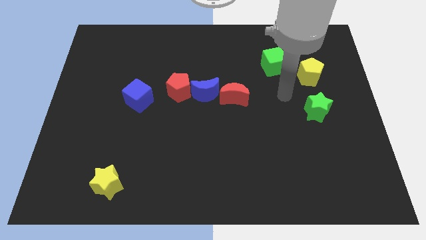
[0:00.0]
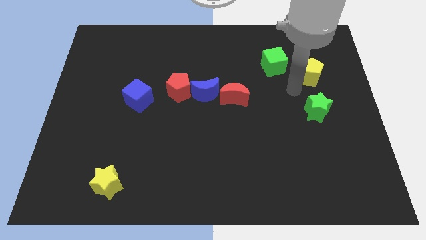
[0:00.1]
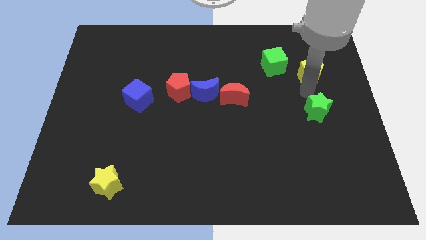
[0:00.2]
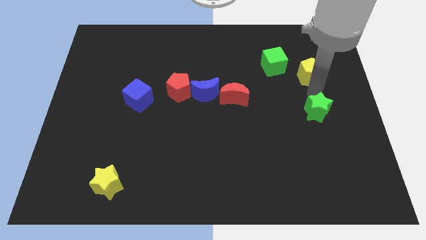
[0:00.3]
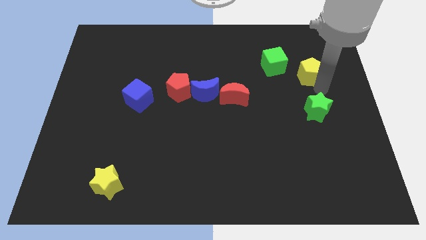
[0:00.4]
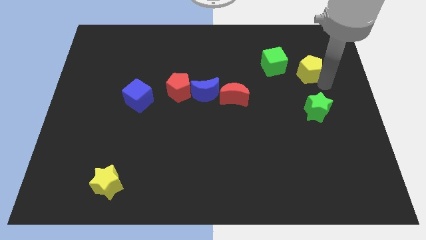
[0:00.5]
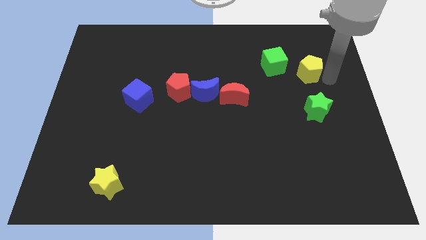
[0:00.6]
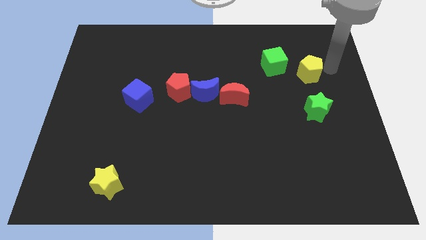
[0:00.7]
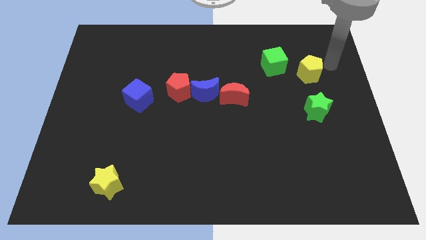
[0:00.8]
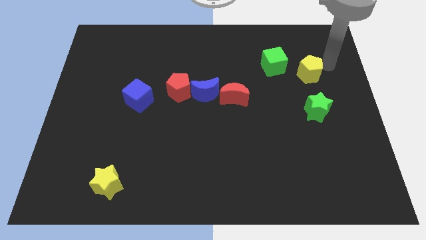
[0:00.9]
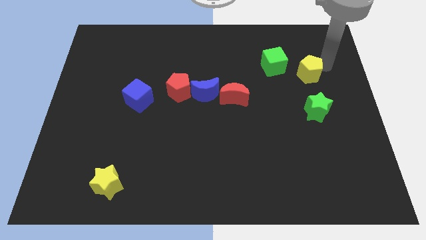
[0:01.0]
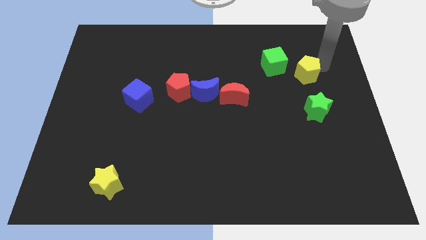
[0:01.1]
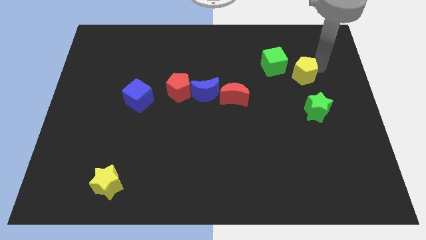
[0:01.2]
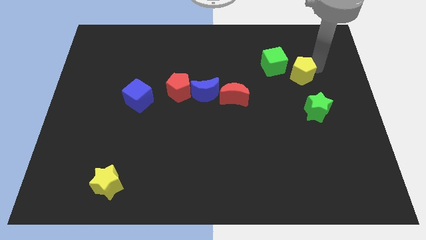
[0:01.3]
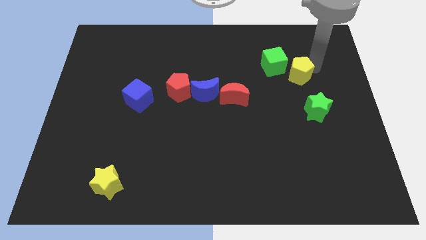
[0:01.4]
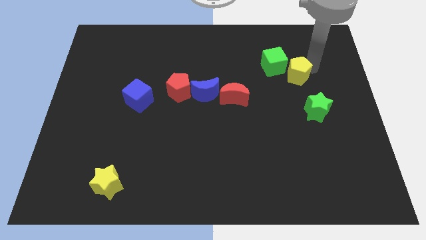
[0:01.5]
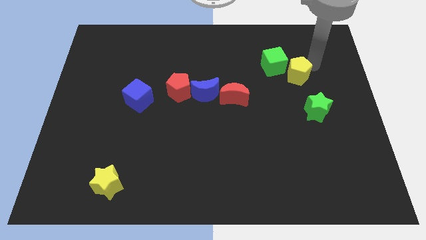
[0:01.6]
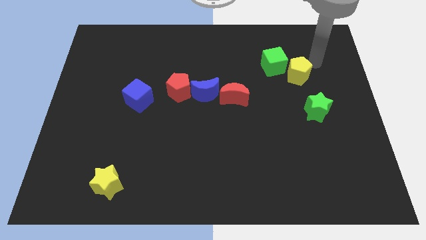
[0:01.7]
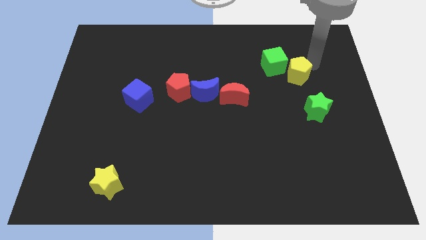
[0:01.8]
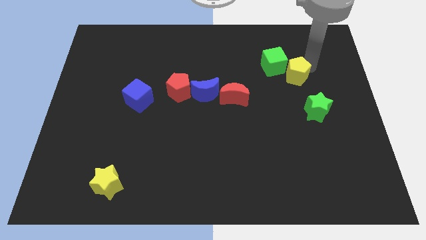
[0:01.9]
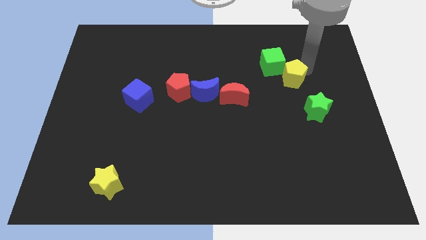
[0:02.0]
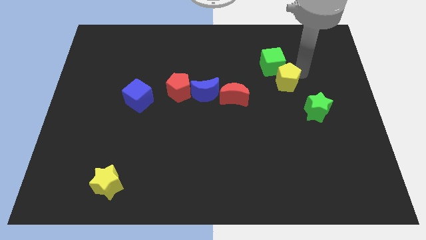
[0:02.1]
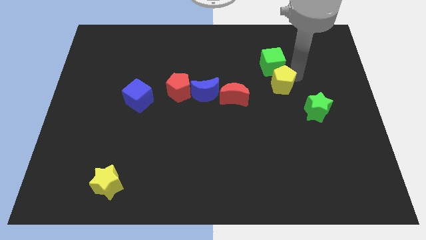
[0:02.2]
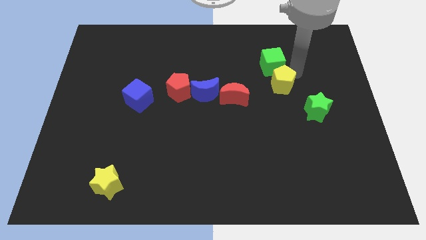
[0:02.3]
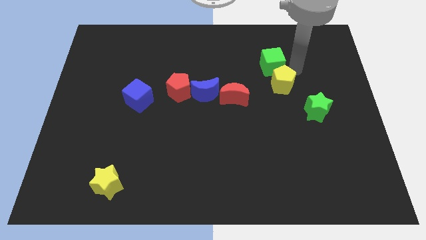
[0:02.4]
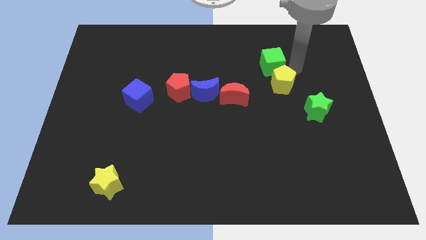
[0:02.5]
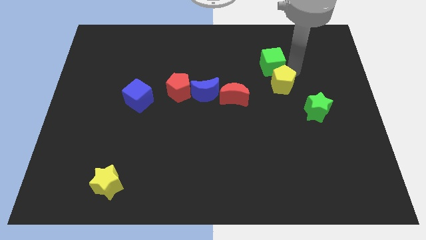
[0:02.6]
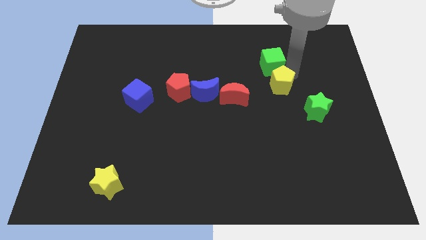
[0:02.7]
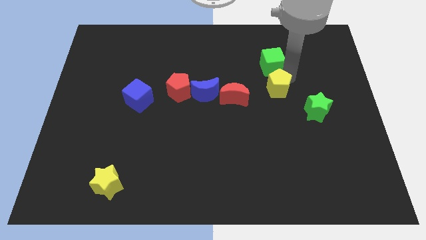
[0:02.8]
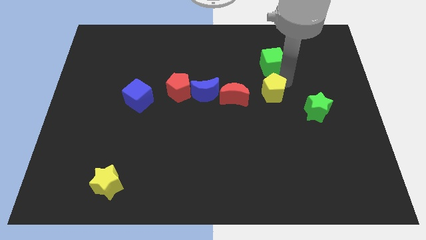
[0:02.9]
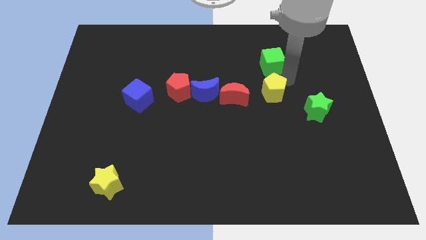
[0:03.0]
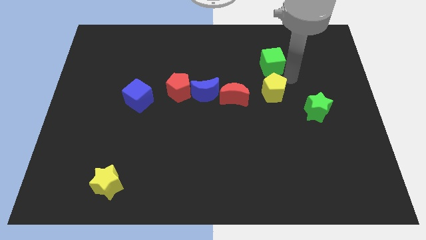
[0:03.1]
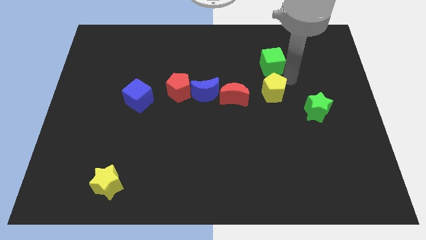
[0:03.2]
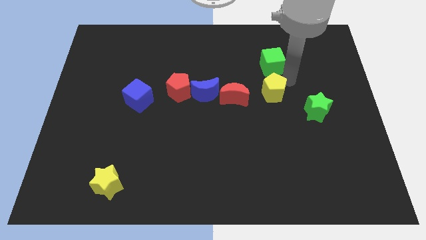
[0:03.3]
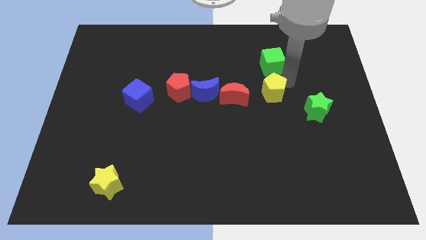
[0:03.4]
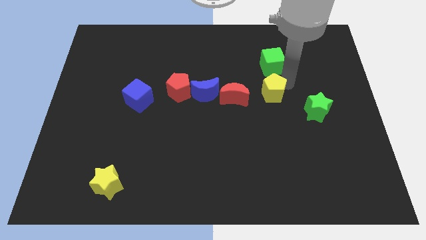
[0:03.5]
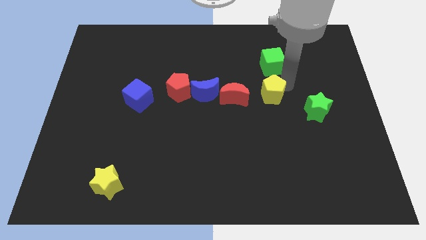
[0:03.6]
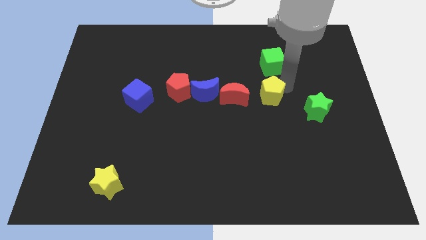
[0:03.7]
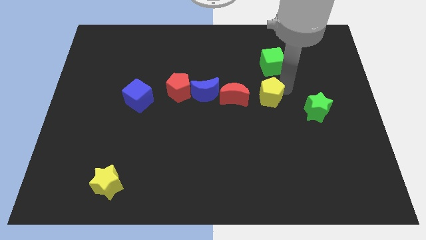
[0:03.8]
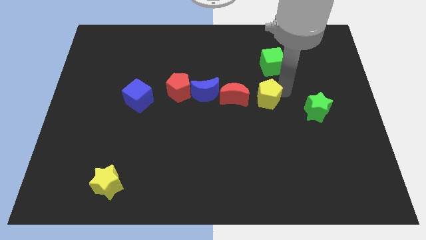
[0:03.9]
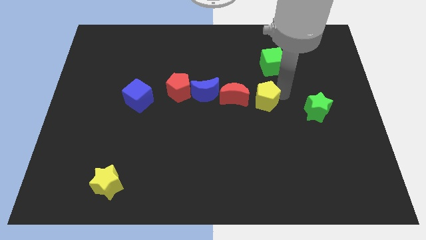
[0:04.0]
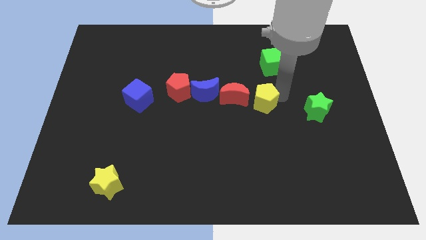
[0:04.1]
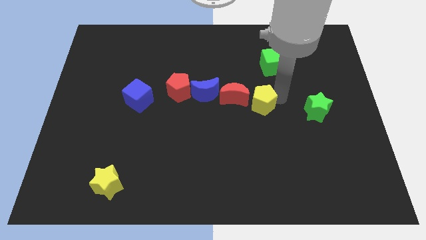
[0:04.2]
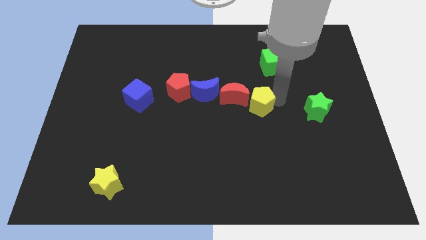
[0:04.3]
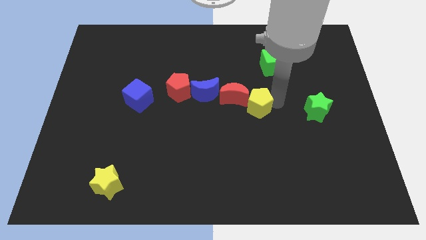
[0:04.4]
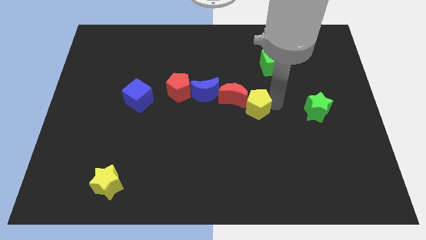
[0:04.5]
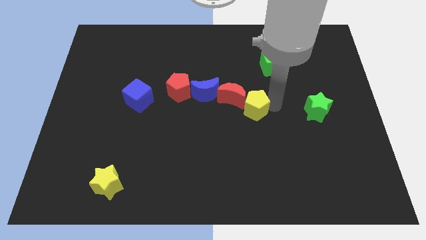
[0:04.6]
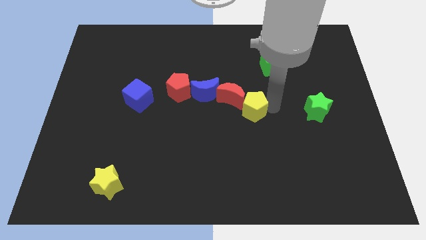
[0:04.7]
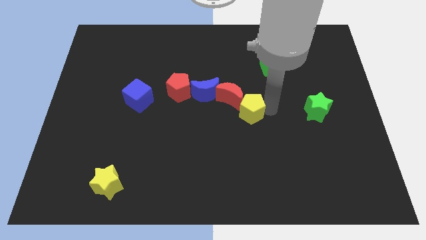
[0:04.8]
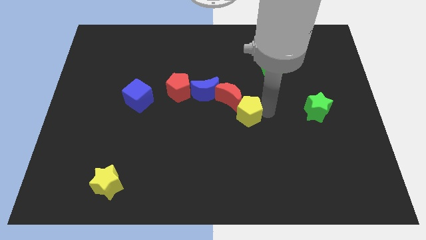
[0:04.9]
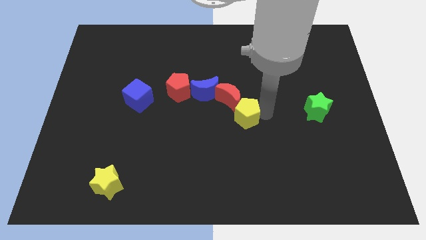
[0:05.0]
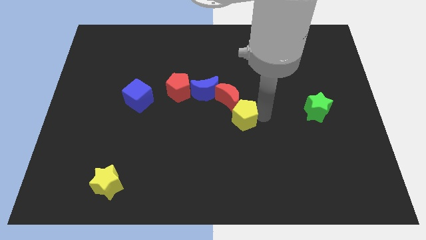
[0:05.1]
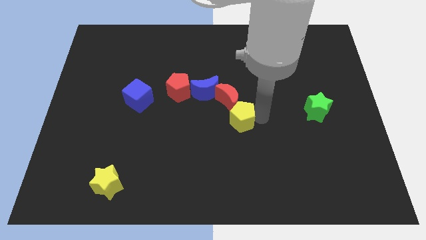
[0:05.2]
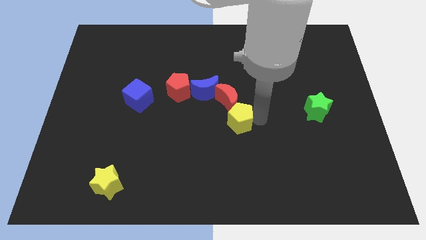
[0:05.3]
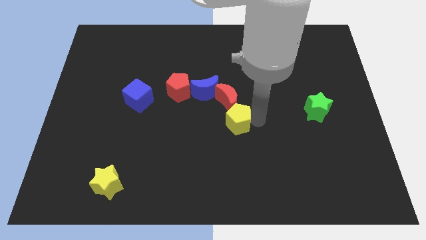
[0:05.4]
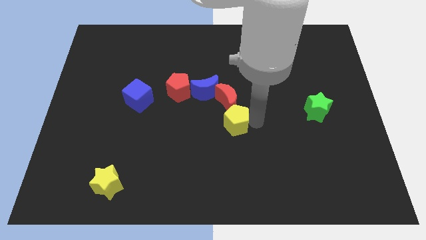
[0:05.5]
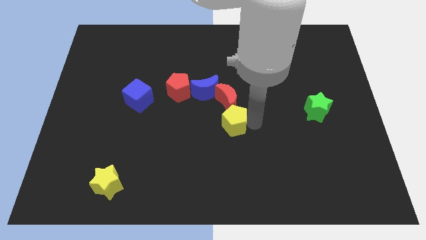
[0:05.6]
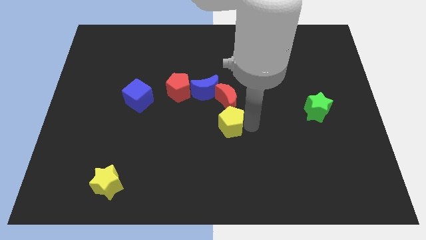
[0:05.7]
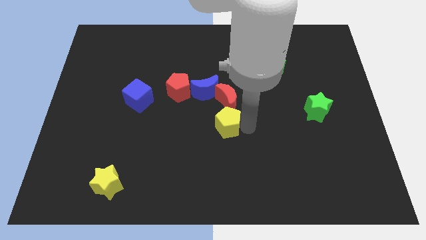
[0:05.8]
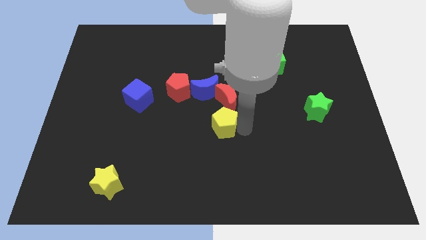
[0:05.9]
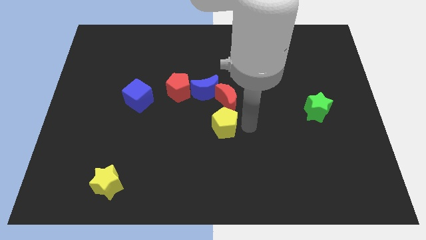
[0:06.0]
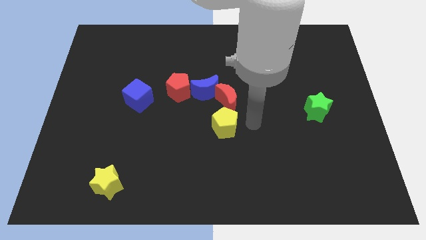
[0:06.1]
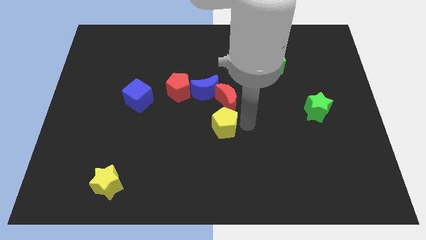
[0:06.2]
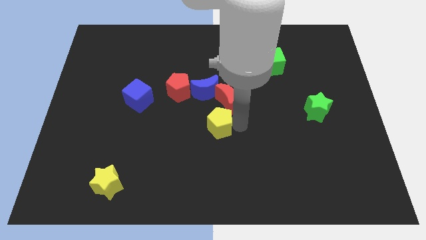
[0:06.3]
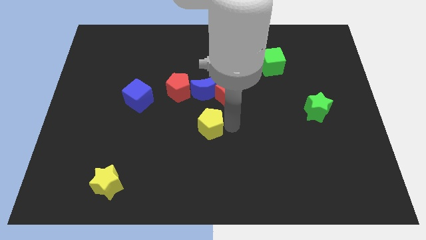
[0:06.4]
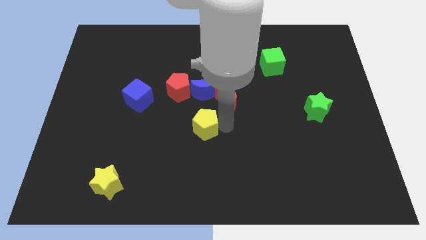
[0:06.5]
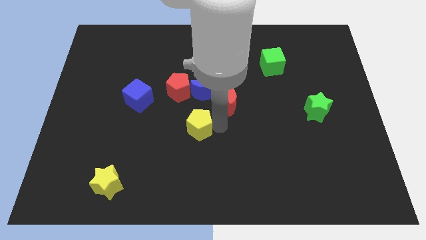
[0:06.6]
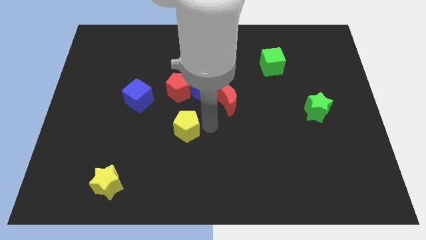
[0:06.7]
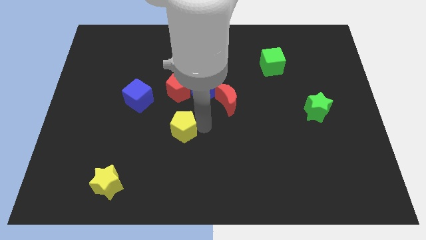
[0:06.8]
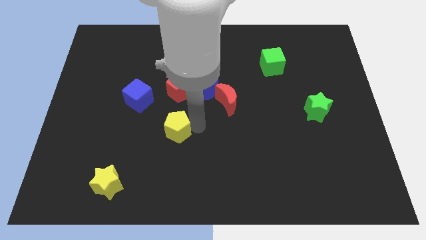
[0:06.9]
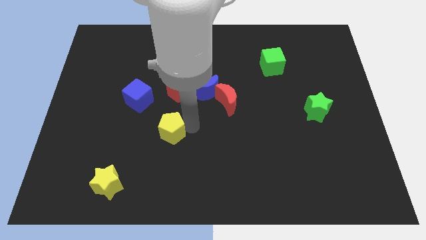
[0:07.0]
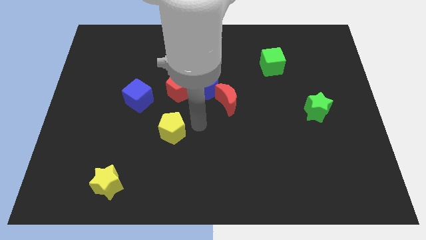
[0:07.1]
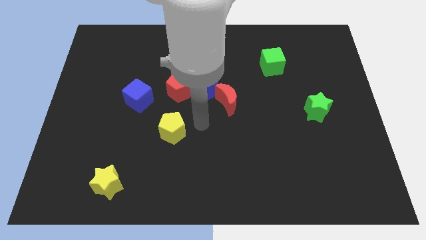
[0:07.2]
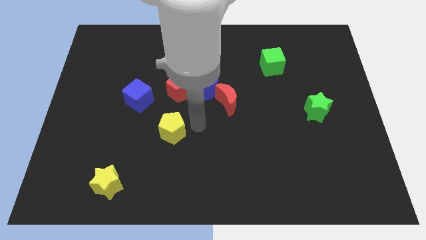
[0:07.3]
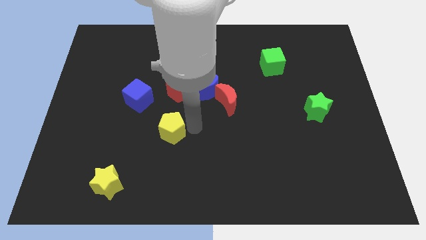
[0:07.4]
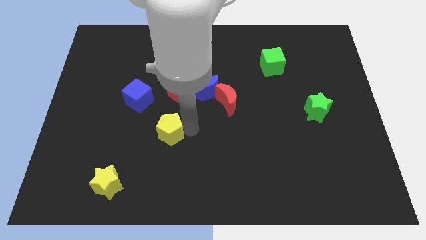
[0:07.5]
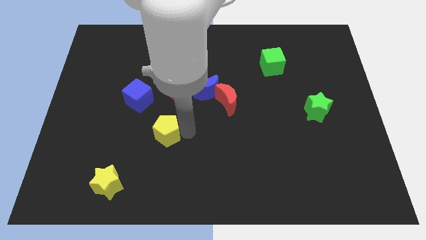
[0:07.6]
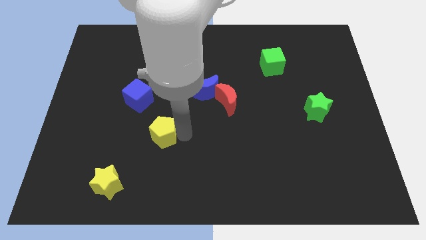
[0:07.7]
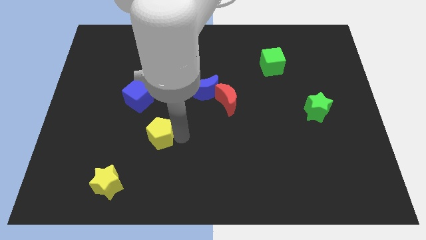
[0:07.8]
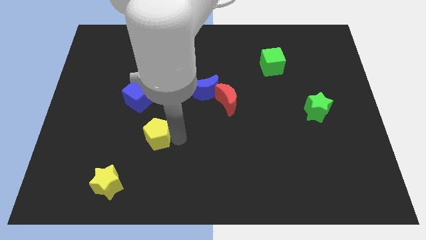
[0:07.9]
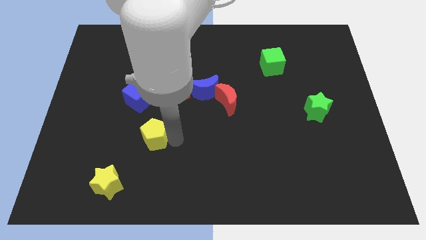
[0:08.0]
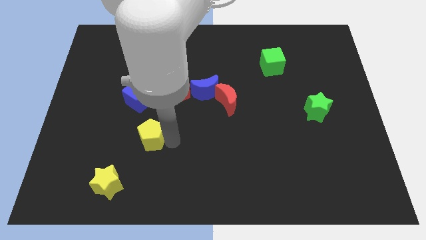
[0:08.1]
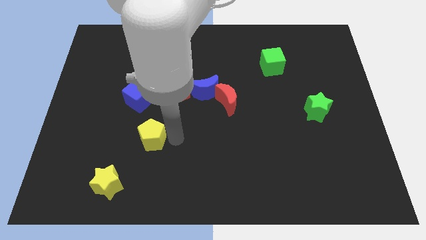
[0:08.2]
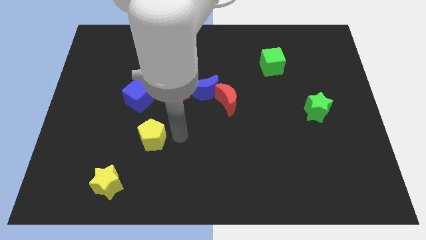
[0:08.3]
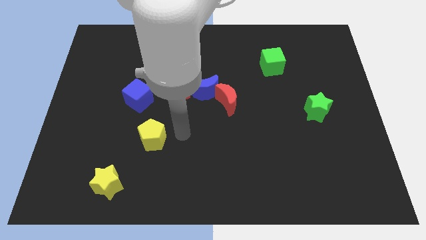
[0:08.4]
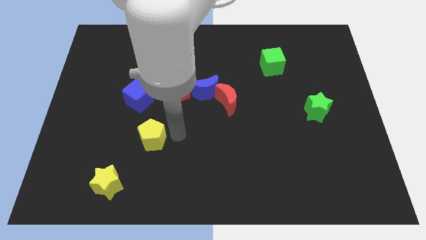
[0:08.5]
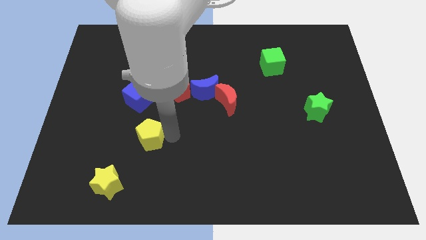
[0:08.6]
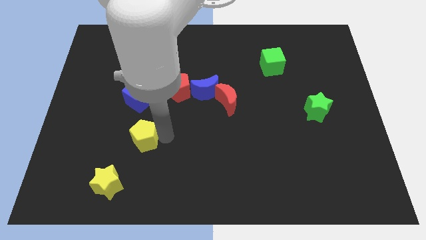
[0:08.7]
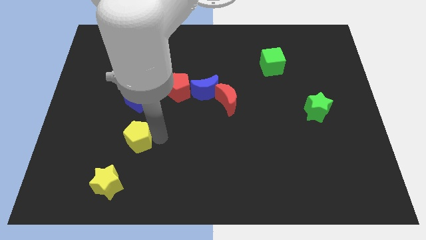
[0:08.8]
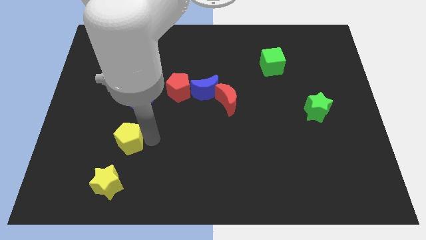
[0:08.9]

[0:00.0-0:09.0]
move the yellow pentagon to the top of the yellow star
